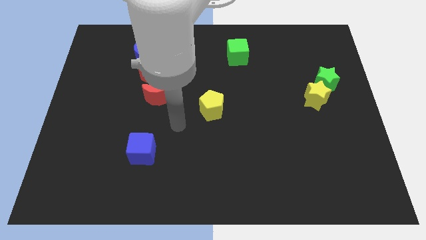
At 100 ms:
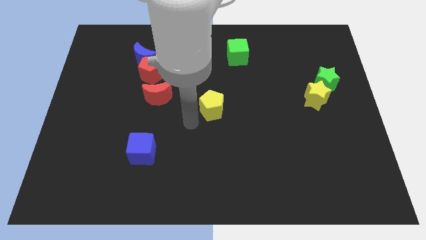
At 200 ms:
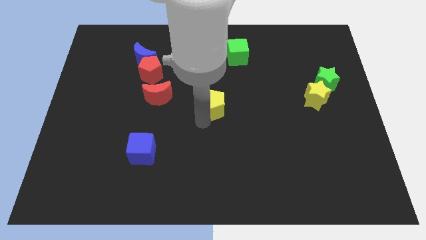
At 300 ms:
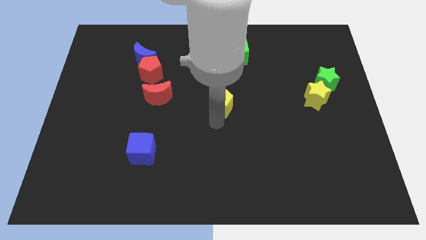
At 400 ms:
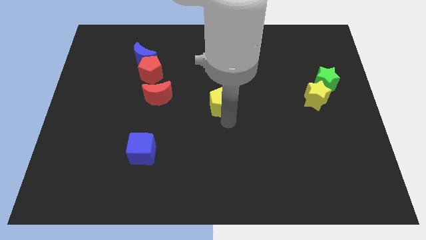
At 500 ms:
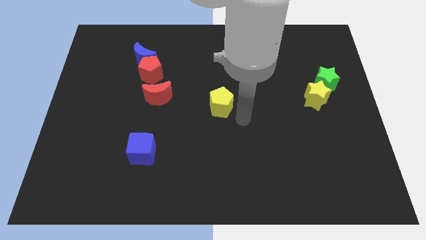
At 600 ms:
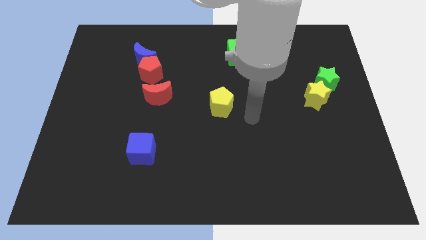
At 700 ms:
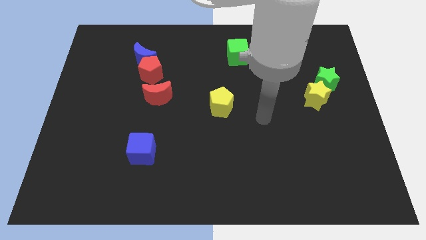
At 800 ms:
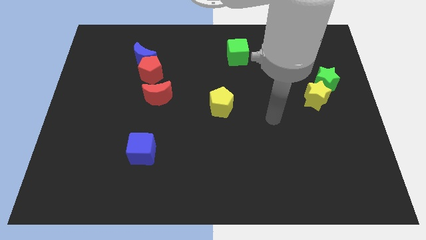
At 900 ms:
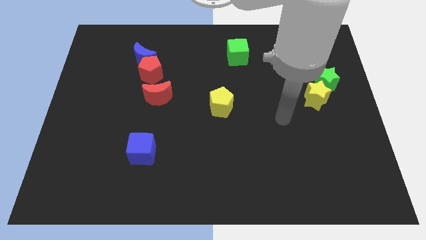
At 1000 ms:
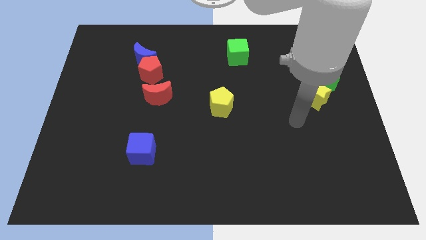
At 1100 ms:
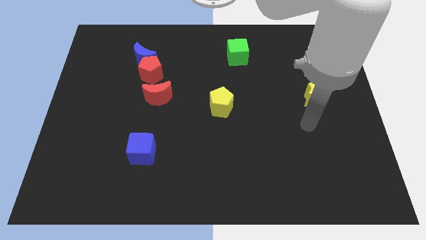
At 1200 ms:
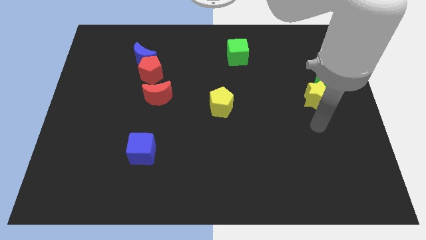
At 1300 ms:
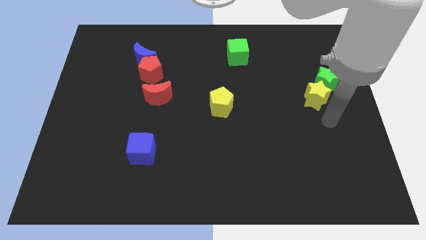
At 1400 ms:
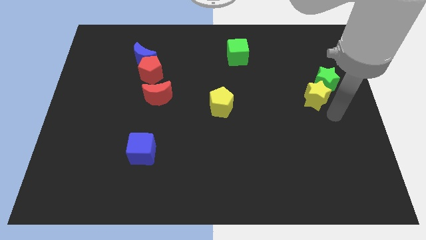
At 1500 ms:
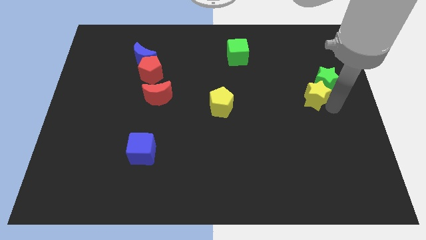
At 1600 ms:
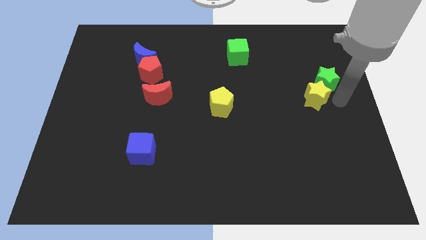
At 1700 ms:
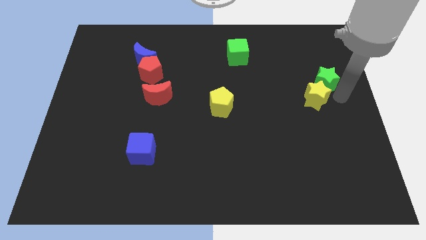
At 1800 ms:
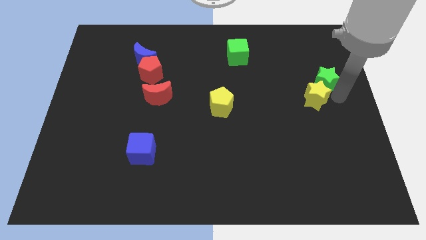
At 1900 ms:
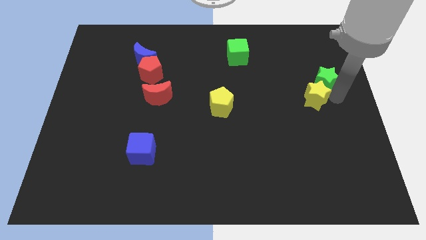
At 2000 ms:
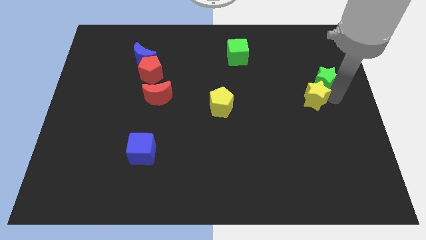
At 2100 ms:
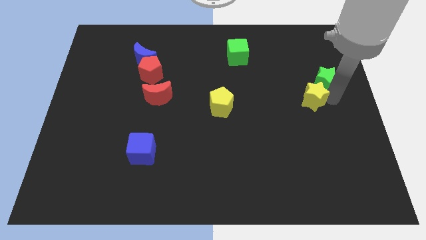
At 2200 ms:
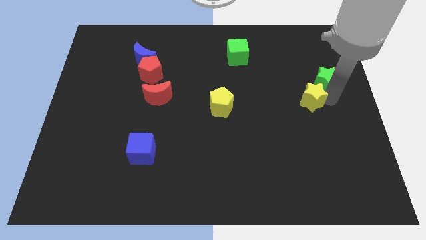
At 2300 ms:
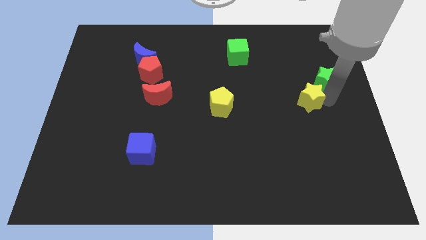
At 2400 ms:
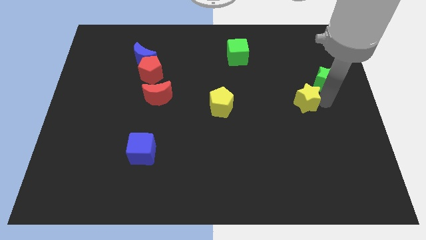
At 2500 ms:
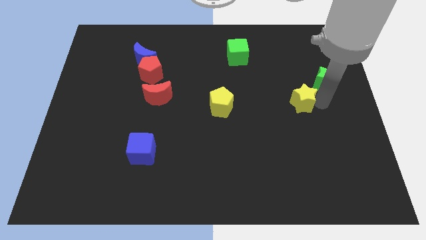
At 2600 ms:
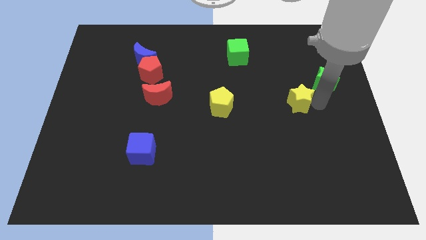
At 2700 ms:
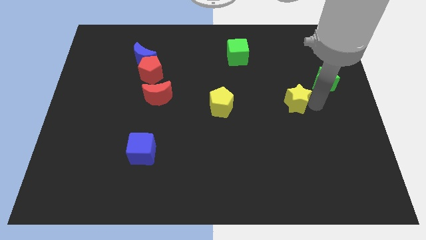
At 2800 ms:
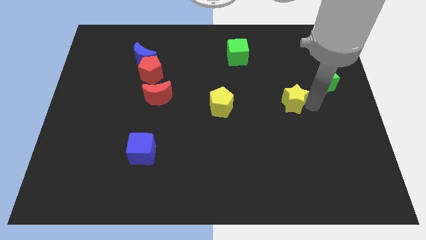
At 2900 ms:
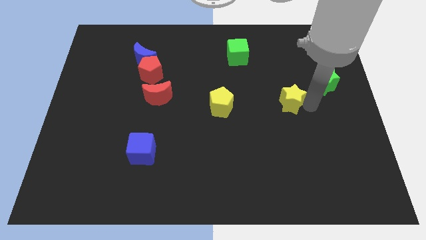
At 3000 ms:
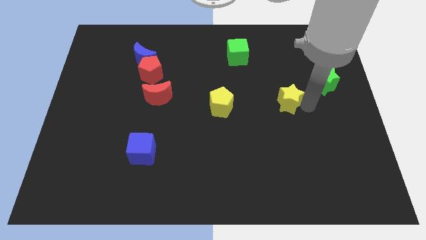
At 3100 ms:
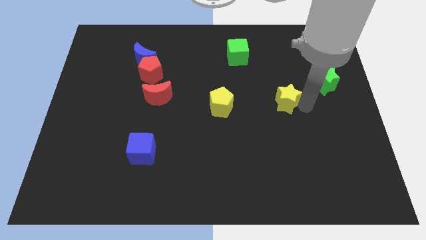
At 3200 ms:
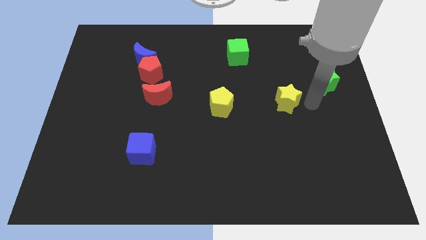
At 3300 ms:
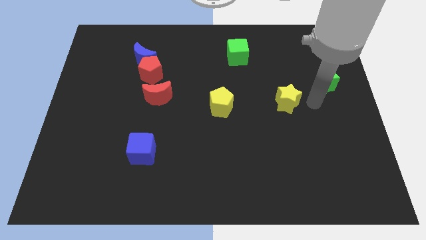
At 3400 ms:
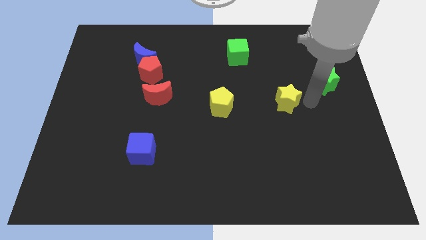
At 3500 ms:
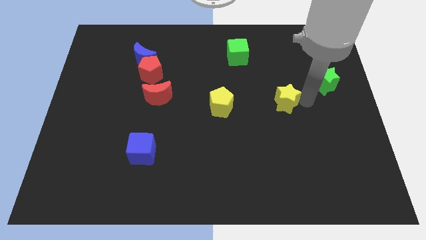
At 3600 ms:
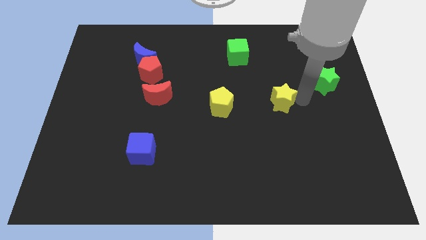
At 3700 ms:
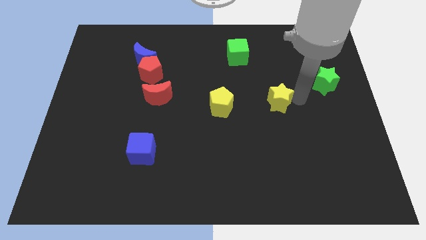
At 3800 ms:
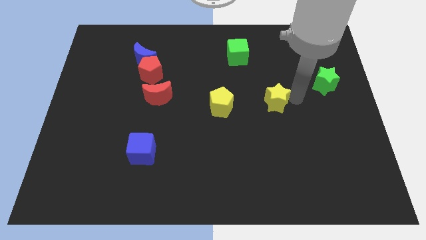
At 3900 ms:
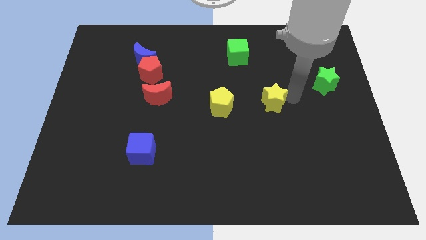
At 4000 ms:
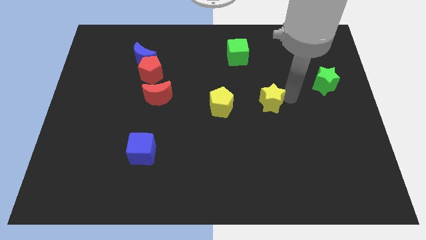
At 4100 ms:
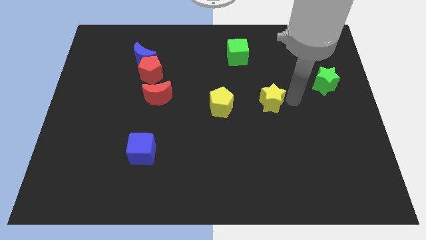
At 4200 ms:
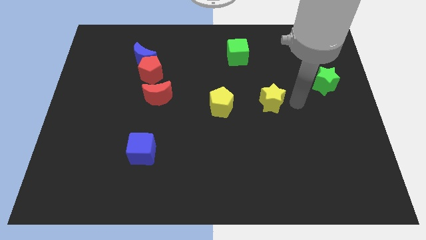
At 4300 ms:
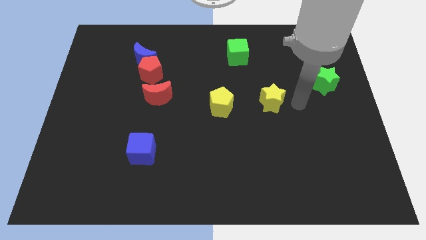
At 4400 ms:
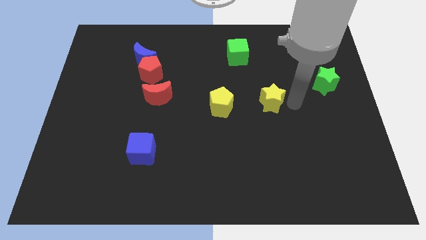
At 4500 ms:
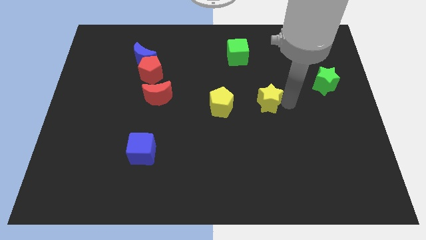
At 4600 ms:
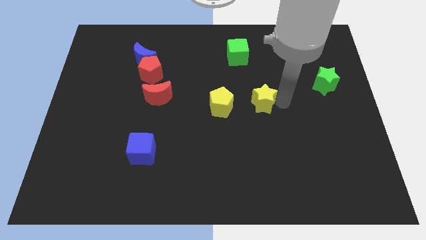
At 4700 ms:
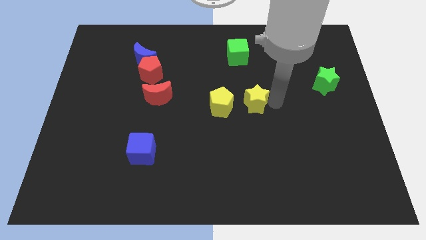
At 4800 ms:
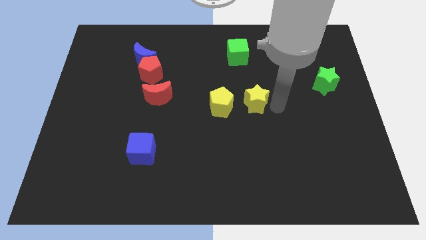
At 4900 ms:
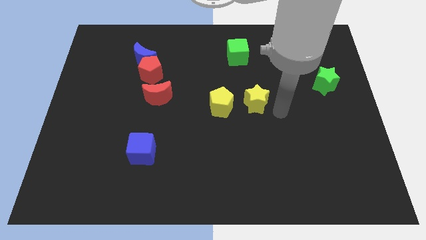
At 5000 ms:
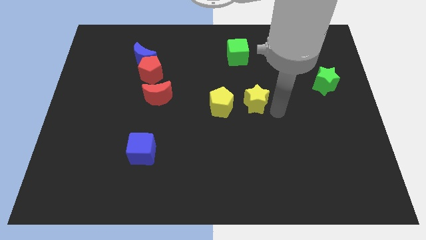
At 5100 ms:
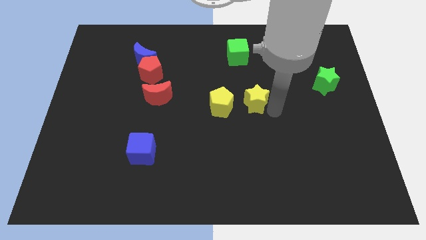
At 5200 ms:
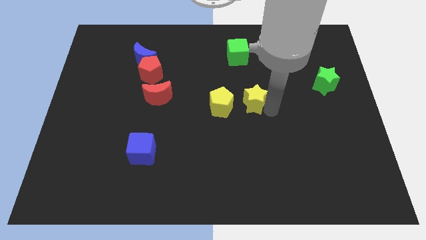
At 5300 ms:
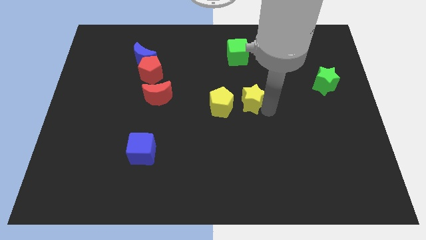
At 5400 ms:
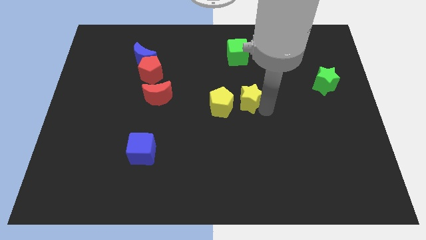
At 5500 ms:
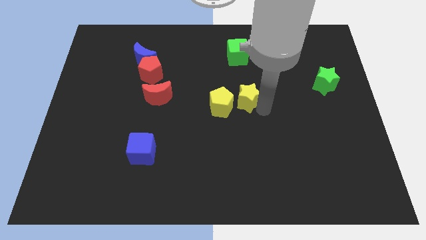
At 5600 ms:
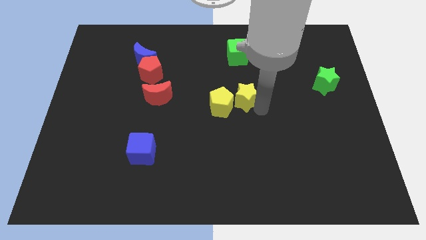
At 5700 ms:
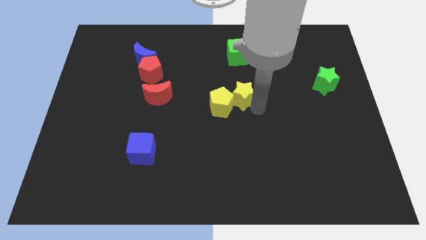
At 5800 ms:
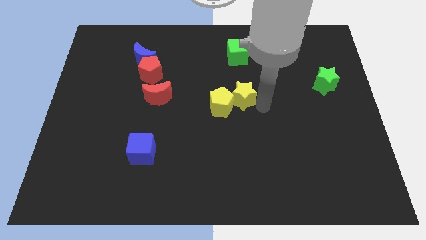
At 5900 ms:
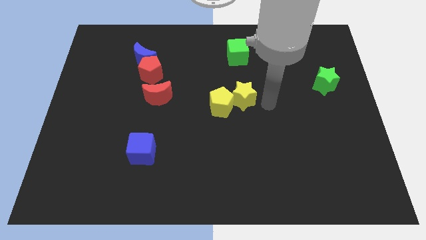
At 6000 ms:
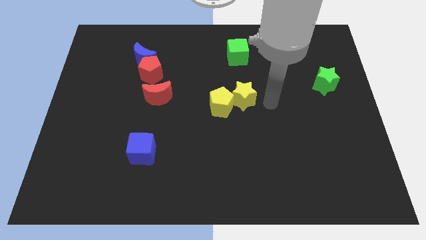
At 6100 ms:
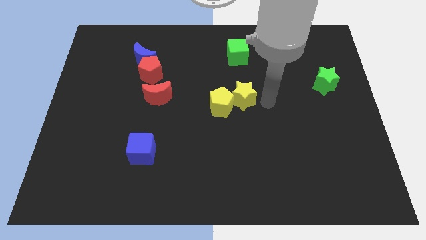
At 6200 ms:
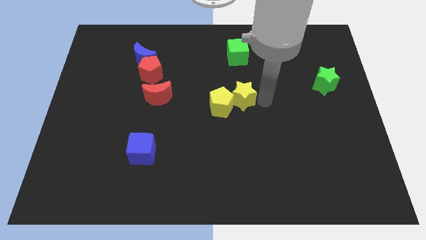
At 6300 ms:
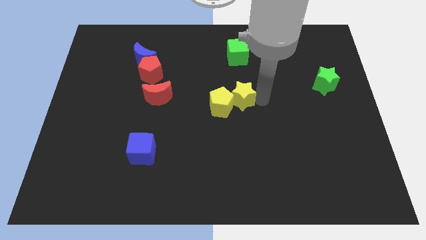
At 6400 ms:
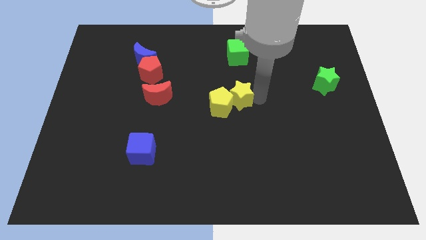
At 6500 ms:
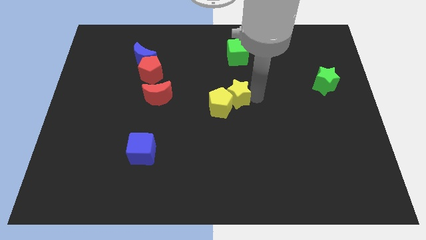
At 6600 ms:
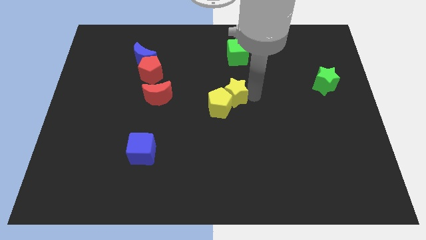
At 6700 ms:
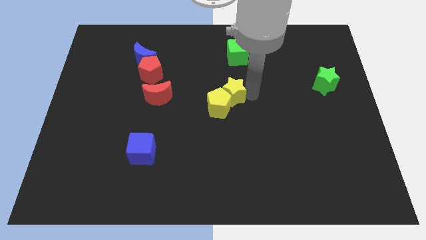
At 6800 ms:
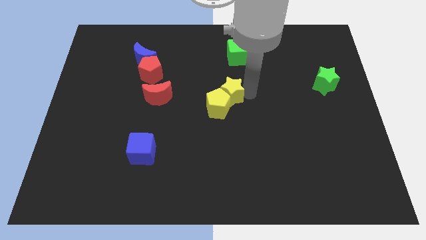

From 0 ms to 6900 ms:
push the yellow star left

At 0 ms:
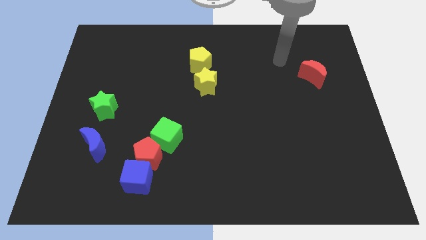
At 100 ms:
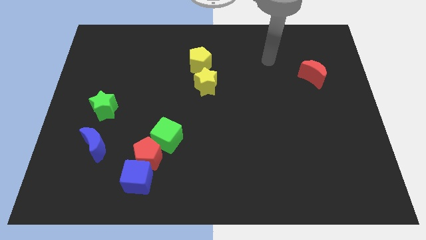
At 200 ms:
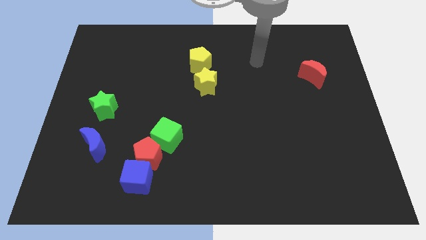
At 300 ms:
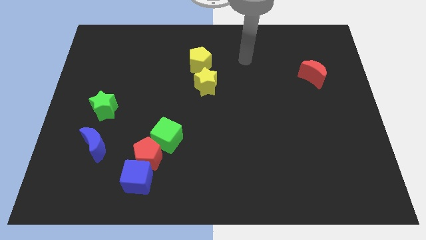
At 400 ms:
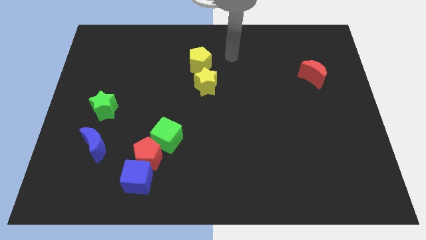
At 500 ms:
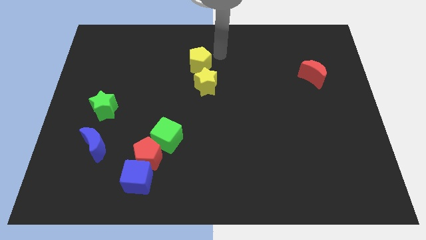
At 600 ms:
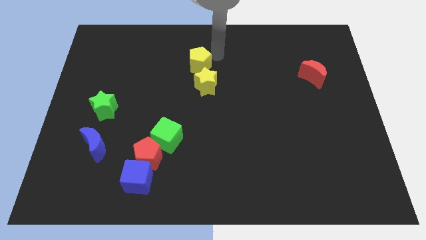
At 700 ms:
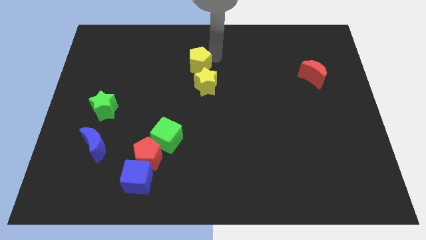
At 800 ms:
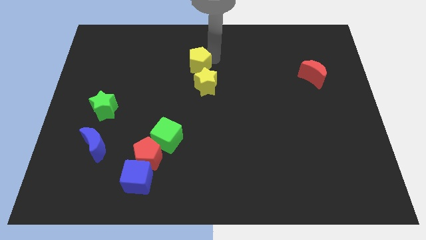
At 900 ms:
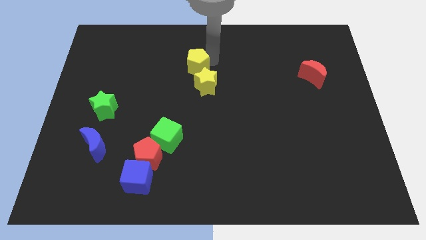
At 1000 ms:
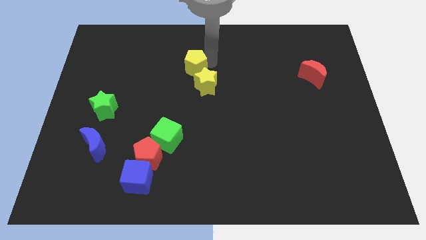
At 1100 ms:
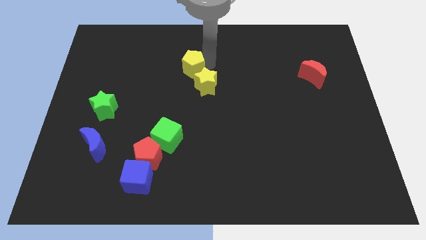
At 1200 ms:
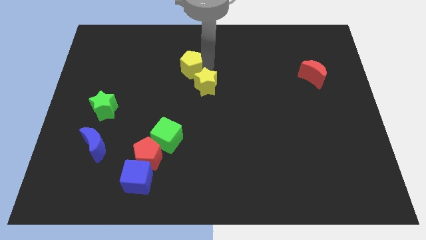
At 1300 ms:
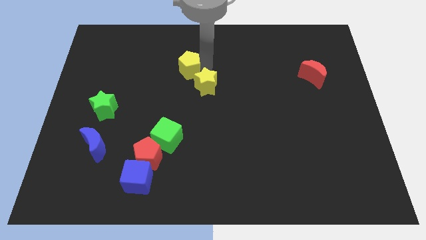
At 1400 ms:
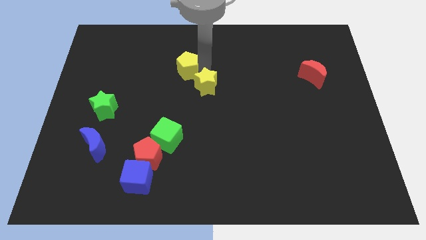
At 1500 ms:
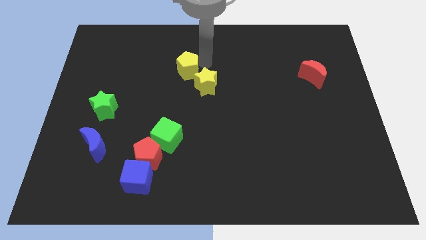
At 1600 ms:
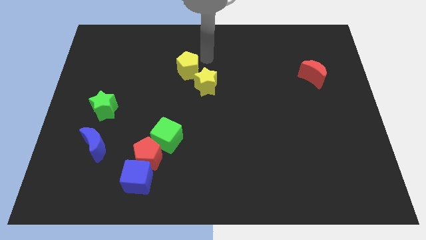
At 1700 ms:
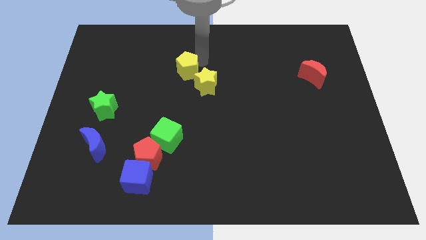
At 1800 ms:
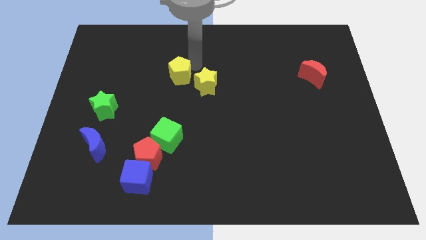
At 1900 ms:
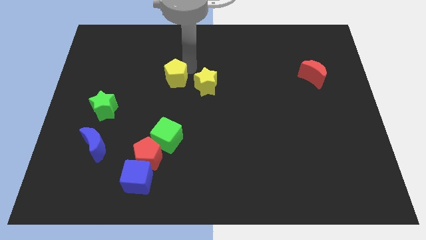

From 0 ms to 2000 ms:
push the yellow pentagon a little downwards and then left
